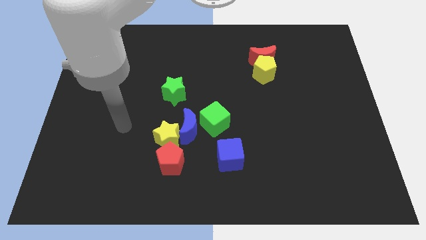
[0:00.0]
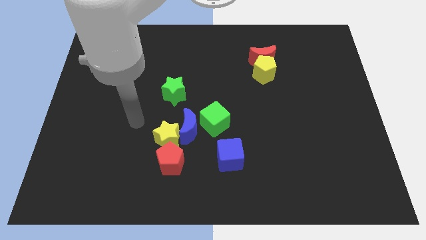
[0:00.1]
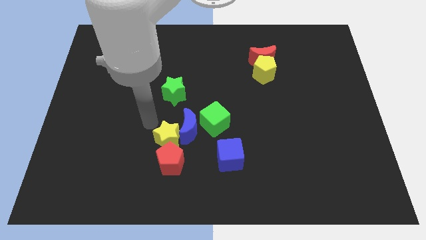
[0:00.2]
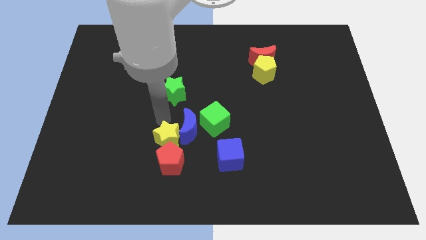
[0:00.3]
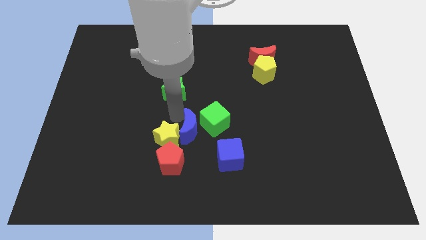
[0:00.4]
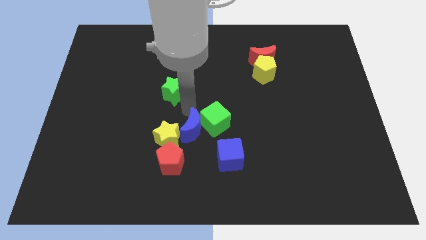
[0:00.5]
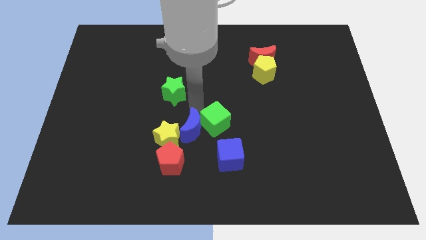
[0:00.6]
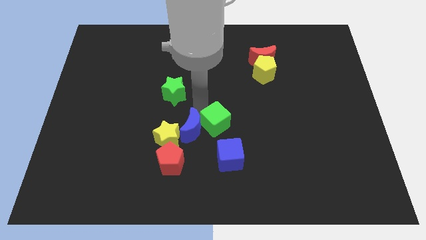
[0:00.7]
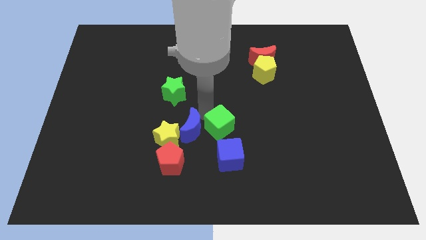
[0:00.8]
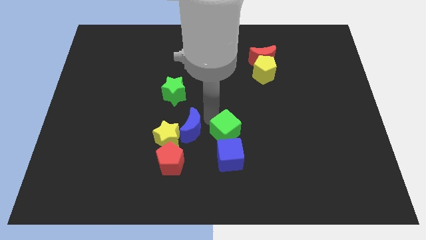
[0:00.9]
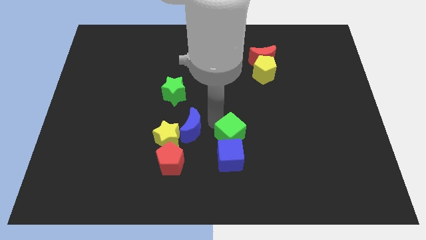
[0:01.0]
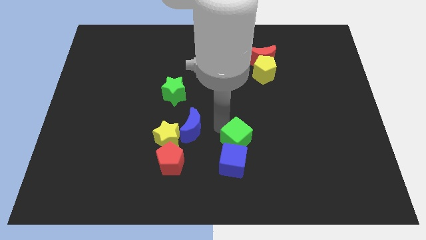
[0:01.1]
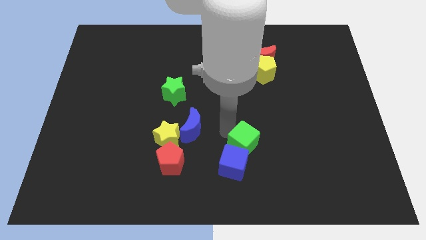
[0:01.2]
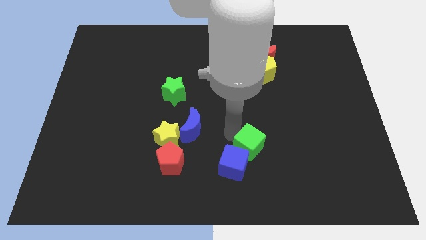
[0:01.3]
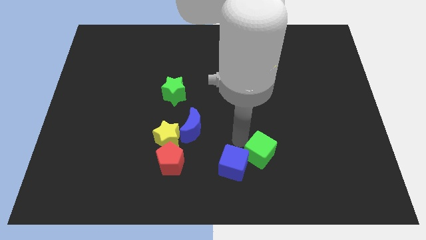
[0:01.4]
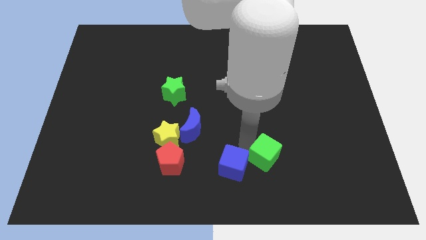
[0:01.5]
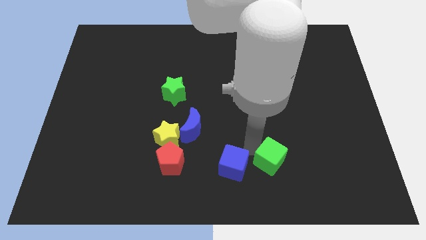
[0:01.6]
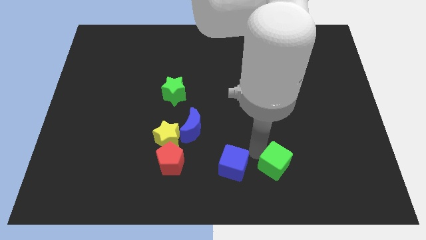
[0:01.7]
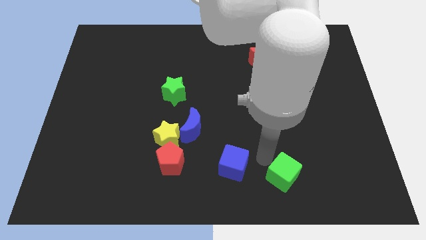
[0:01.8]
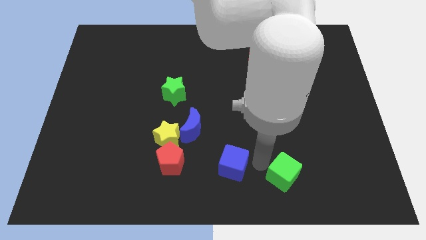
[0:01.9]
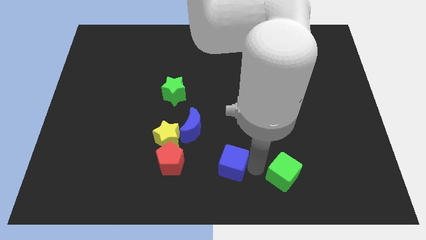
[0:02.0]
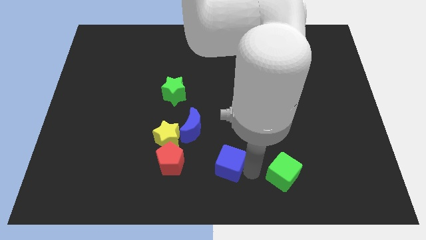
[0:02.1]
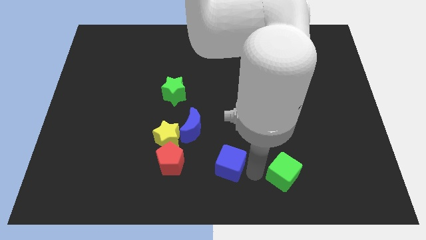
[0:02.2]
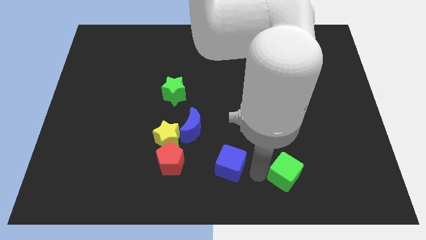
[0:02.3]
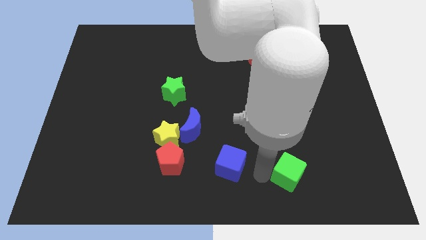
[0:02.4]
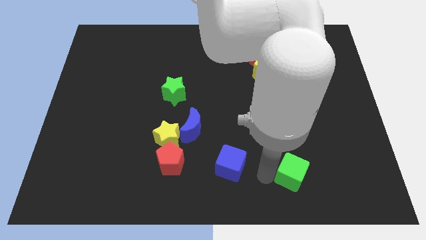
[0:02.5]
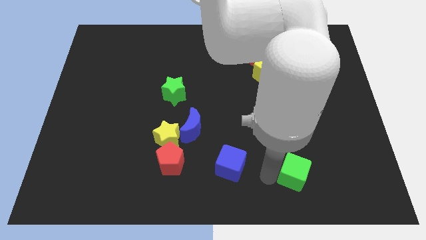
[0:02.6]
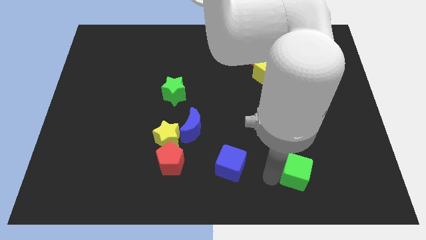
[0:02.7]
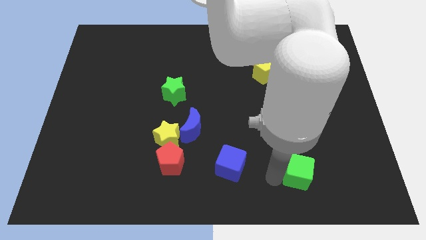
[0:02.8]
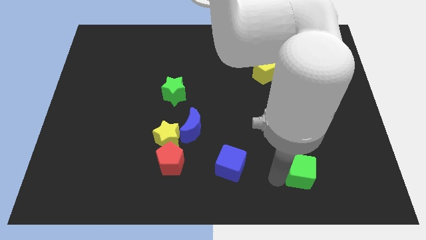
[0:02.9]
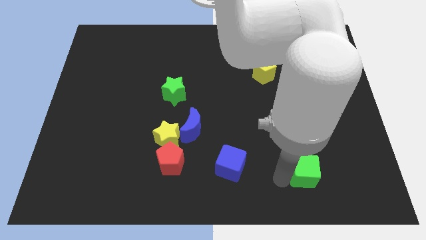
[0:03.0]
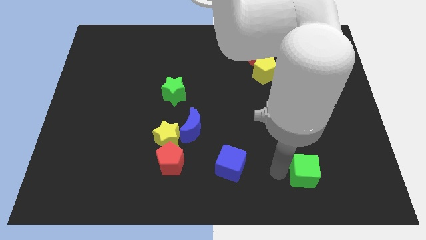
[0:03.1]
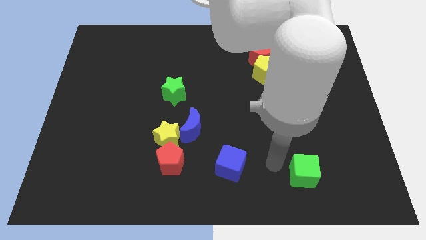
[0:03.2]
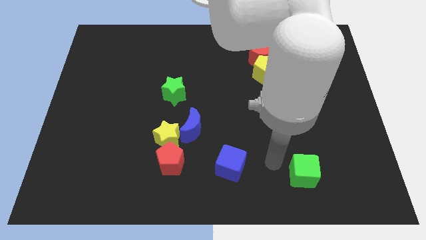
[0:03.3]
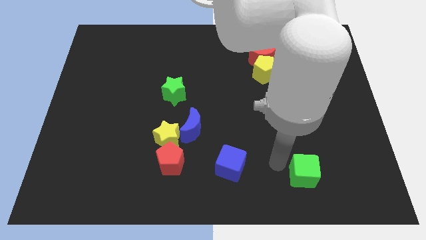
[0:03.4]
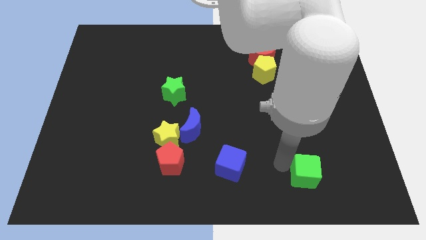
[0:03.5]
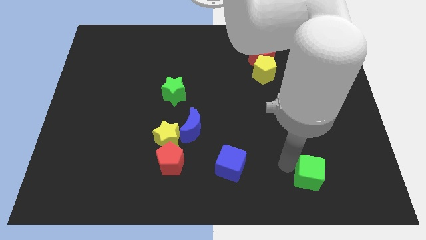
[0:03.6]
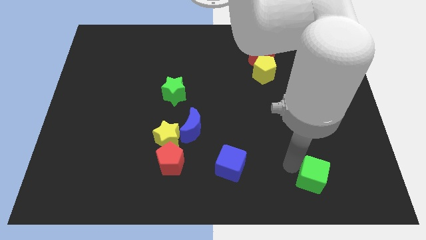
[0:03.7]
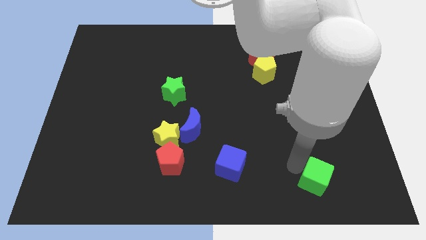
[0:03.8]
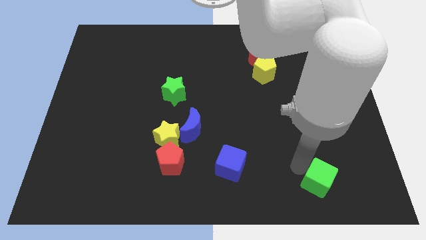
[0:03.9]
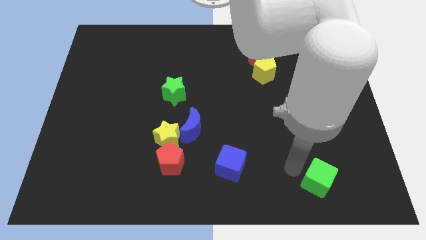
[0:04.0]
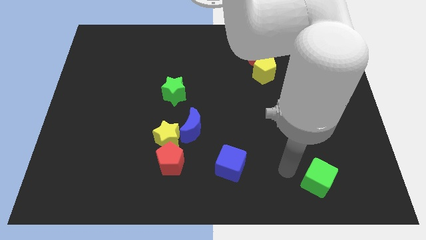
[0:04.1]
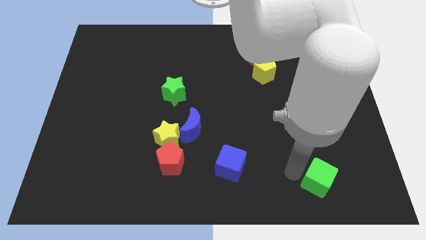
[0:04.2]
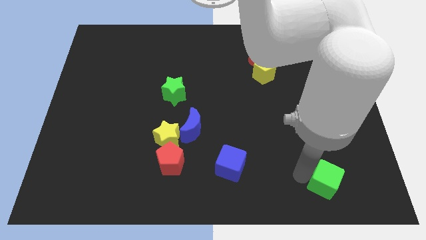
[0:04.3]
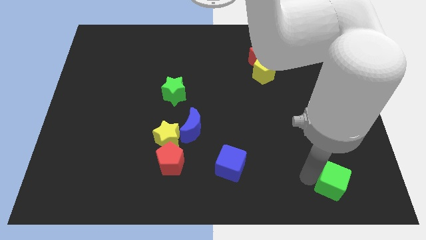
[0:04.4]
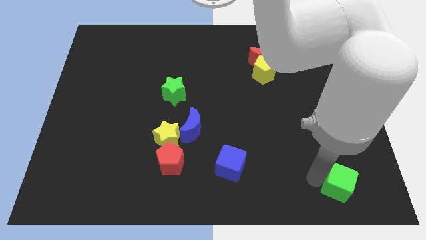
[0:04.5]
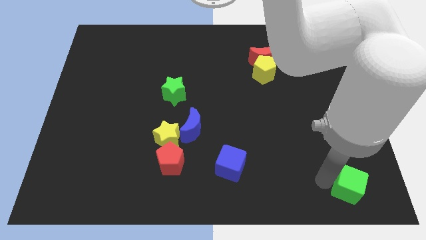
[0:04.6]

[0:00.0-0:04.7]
slide the green cube to the bottom right corner

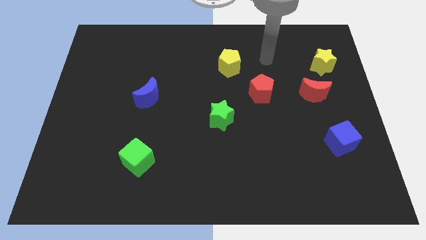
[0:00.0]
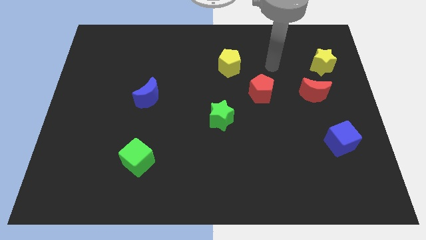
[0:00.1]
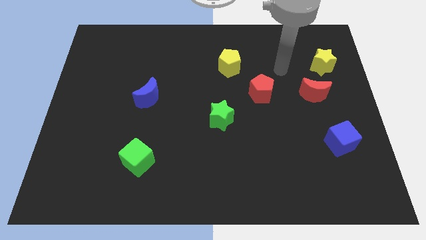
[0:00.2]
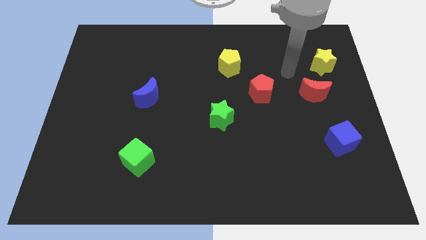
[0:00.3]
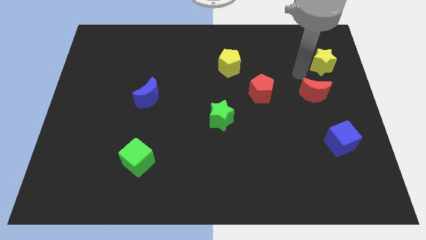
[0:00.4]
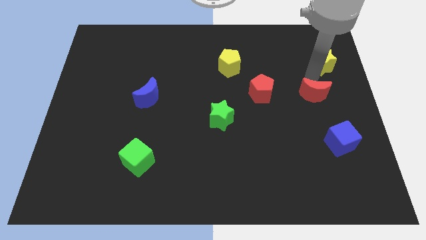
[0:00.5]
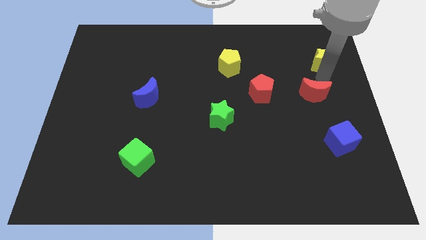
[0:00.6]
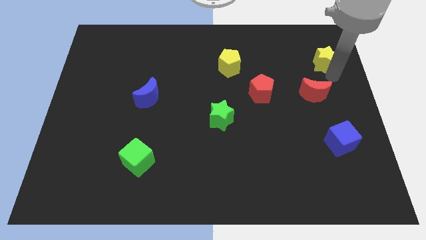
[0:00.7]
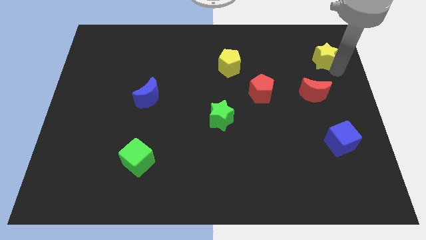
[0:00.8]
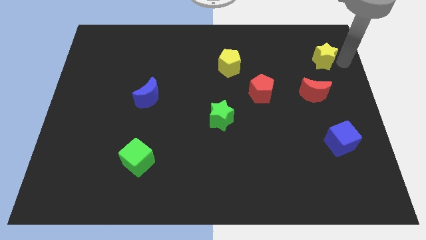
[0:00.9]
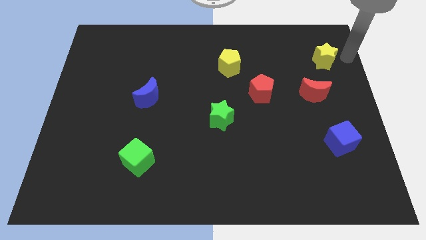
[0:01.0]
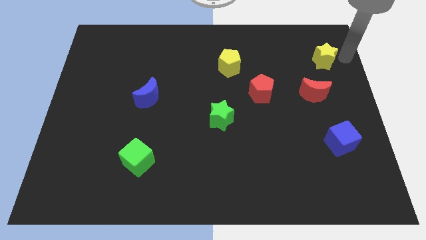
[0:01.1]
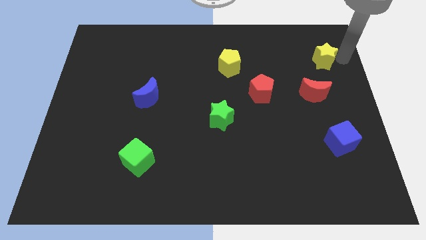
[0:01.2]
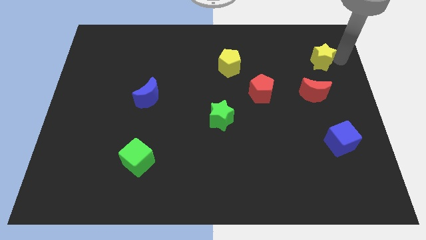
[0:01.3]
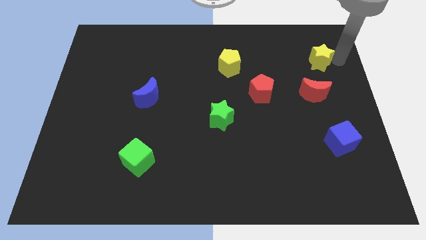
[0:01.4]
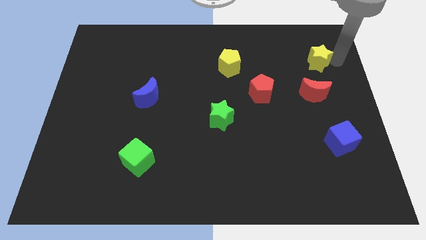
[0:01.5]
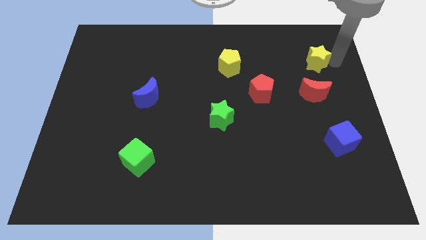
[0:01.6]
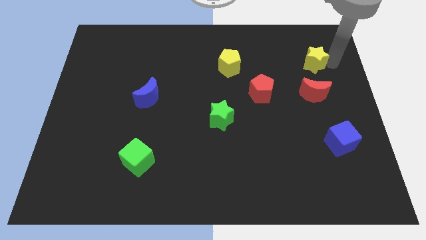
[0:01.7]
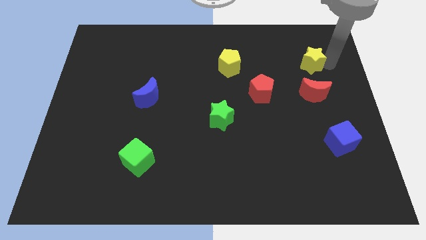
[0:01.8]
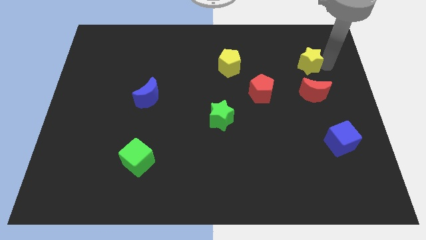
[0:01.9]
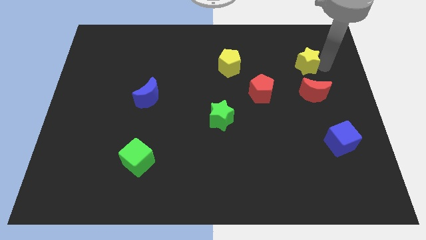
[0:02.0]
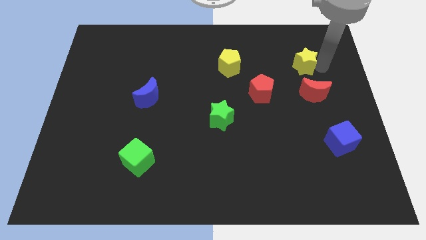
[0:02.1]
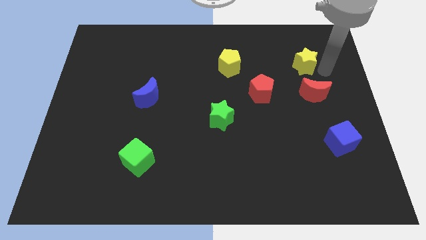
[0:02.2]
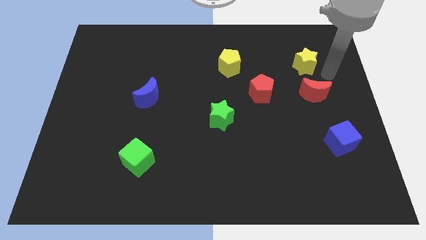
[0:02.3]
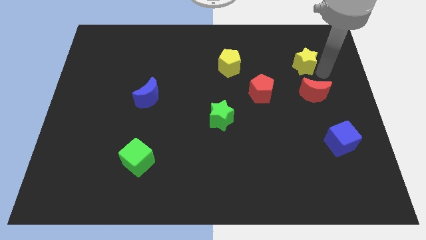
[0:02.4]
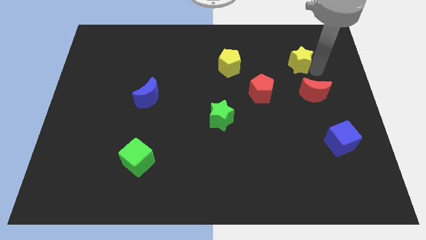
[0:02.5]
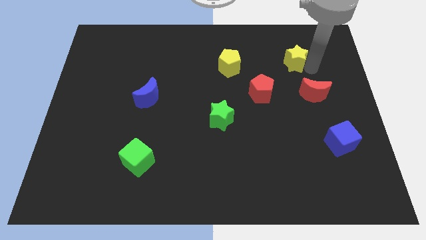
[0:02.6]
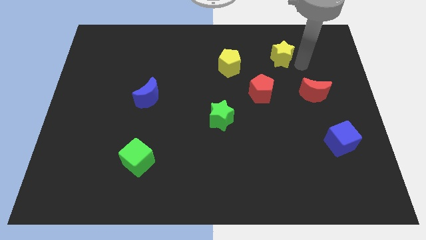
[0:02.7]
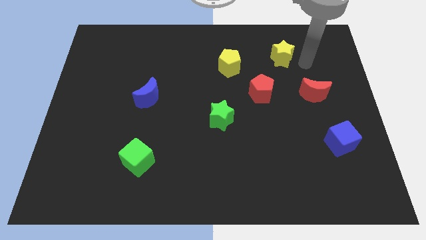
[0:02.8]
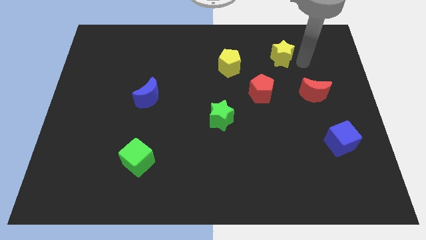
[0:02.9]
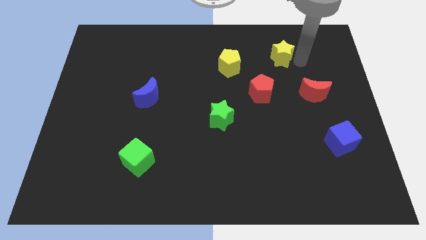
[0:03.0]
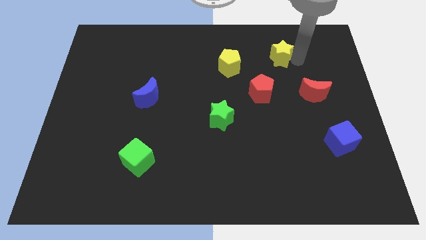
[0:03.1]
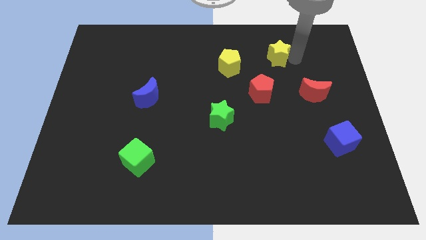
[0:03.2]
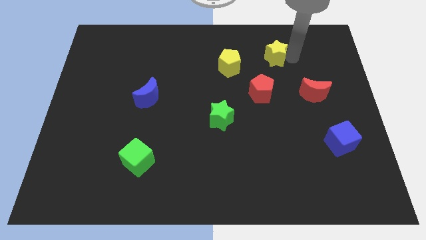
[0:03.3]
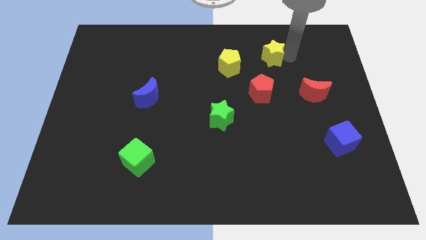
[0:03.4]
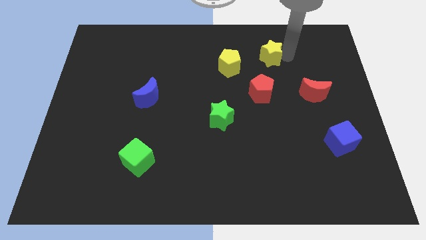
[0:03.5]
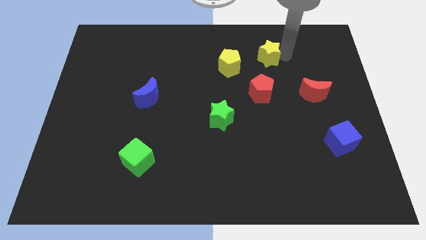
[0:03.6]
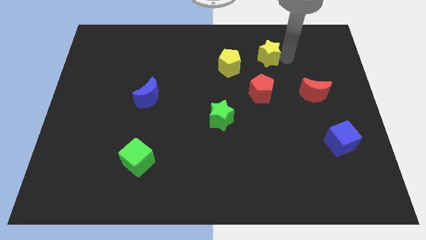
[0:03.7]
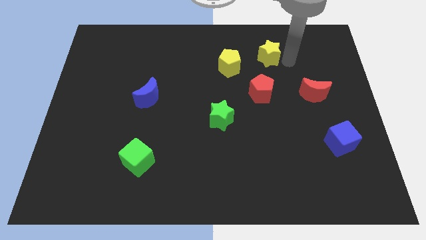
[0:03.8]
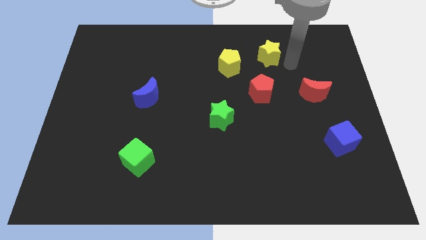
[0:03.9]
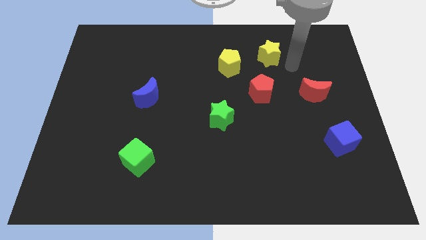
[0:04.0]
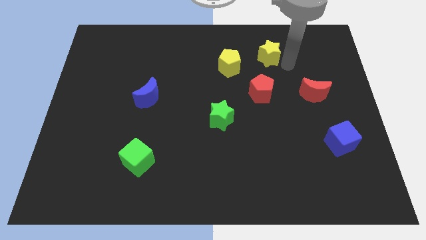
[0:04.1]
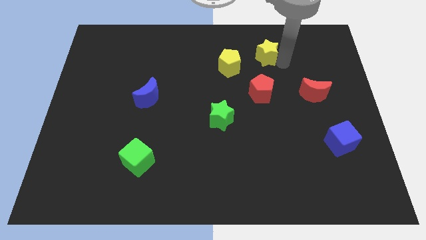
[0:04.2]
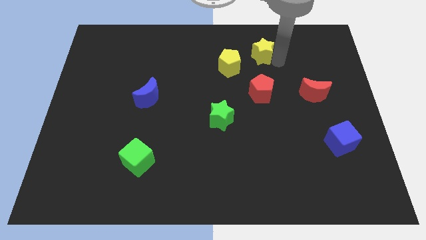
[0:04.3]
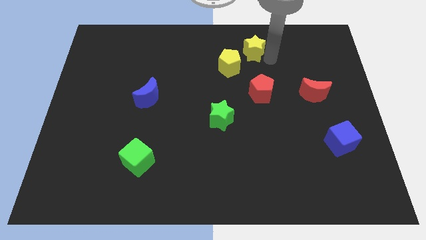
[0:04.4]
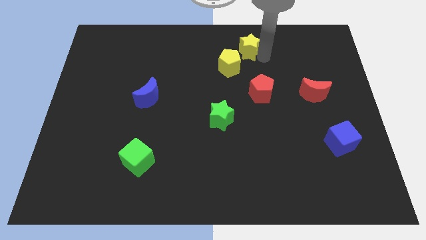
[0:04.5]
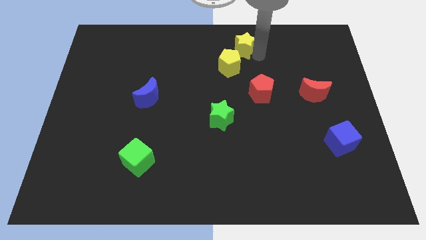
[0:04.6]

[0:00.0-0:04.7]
put the yellow star to the top side
